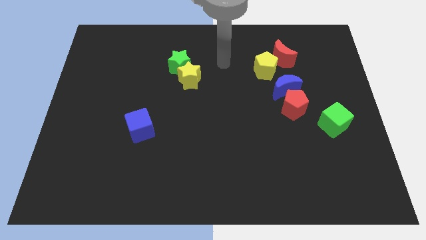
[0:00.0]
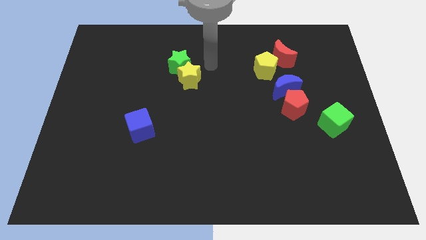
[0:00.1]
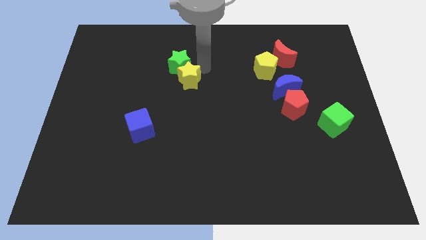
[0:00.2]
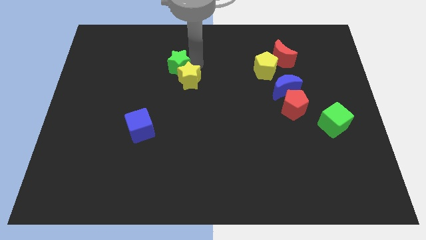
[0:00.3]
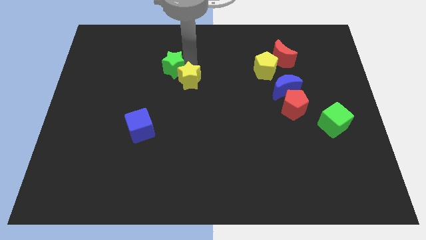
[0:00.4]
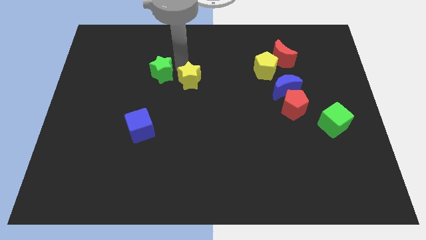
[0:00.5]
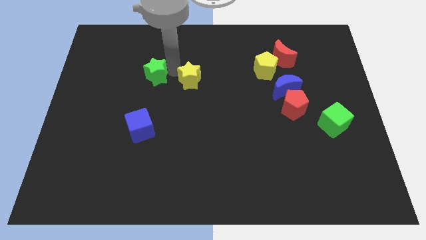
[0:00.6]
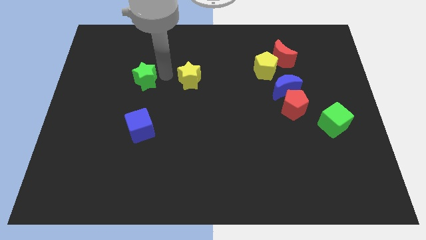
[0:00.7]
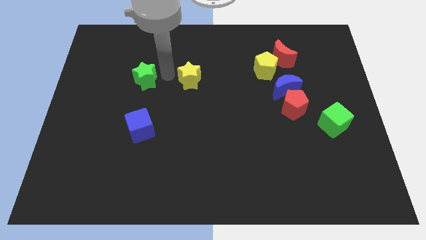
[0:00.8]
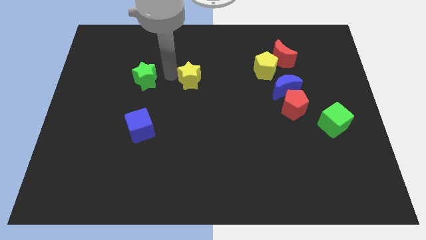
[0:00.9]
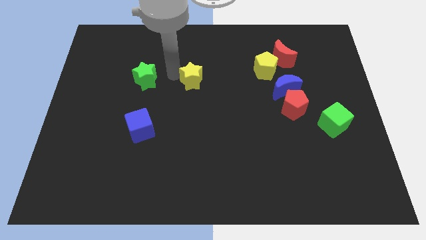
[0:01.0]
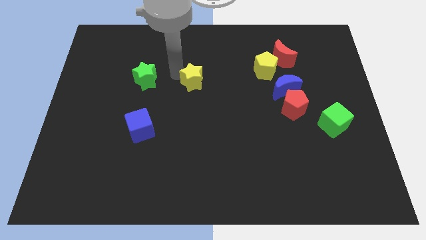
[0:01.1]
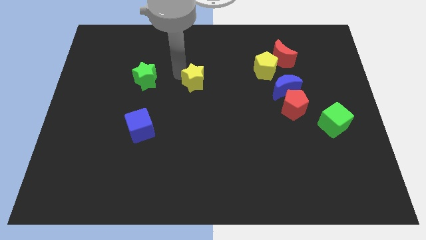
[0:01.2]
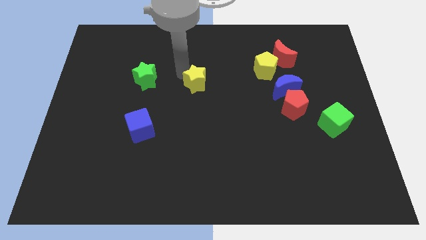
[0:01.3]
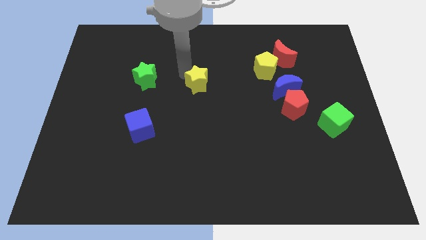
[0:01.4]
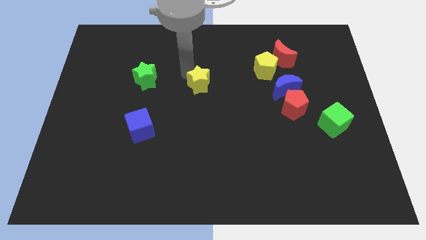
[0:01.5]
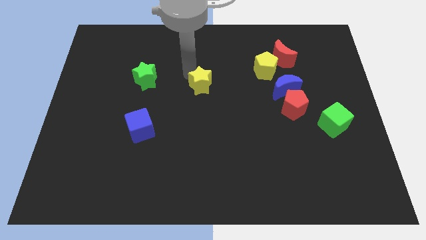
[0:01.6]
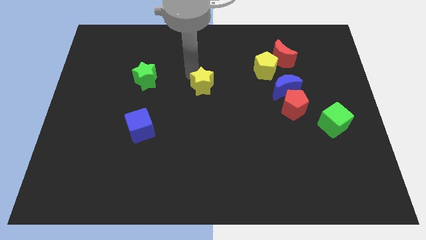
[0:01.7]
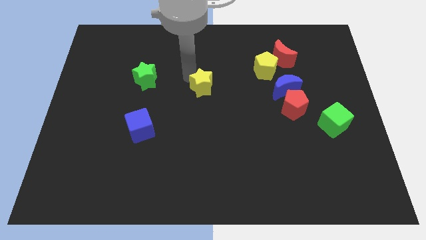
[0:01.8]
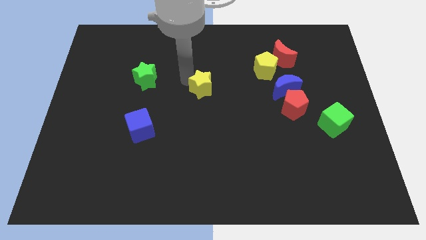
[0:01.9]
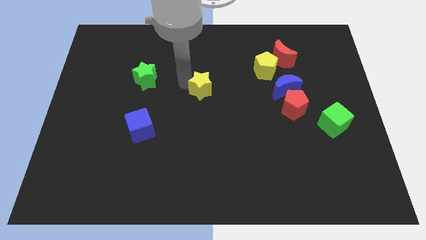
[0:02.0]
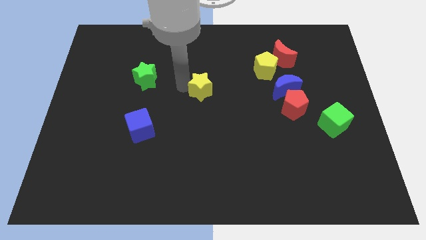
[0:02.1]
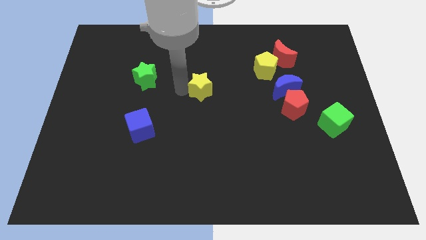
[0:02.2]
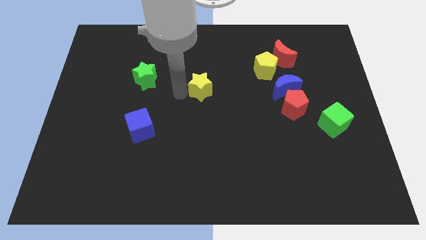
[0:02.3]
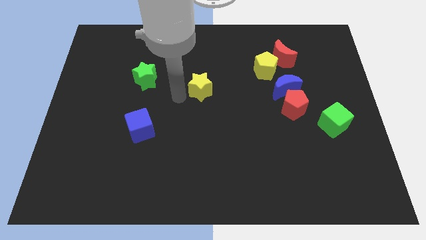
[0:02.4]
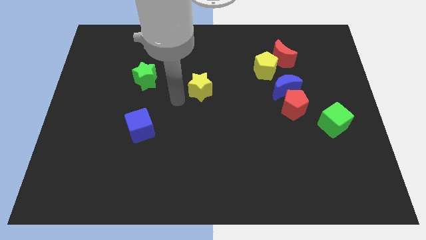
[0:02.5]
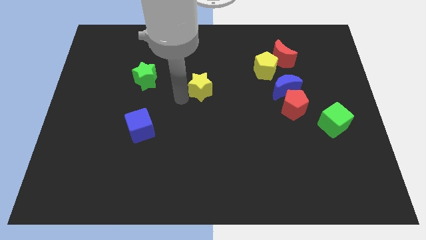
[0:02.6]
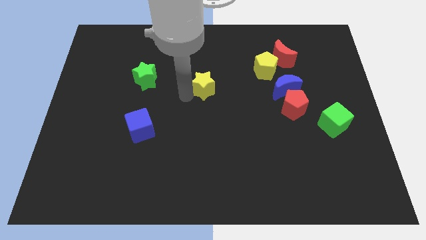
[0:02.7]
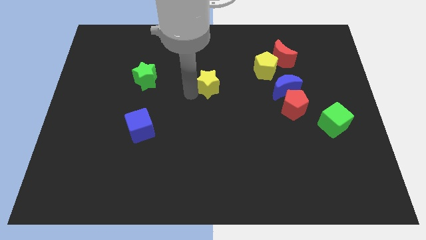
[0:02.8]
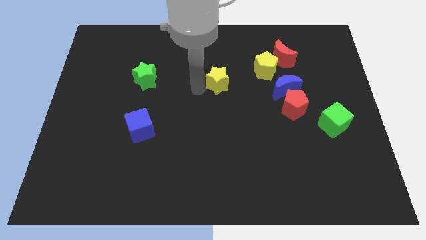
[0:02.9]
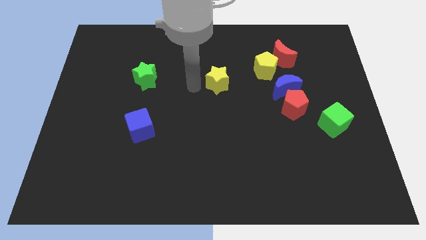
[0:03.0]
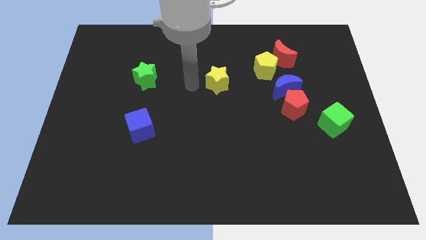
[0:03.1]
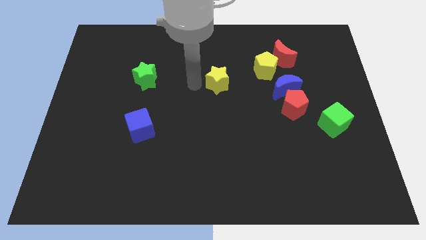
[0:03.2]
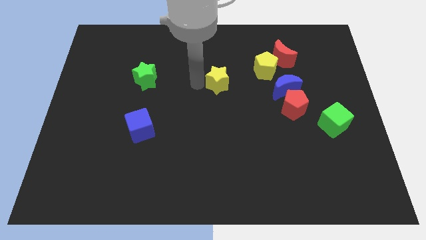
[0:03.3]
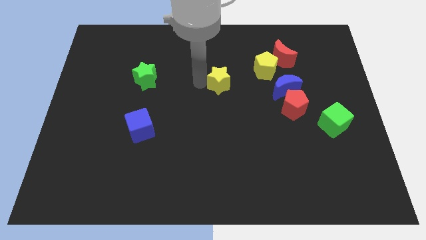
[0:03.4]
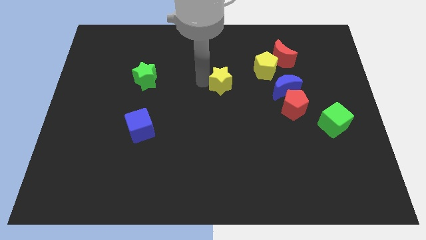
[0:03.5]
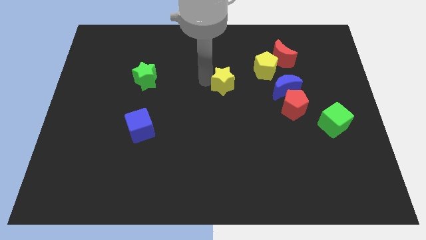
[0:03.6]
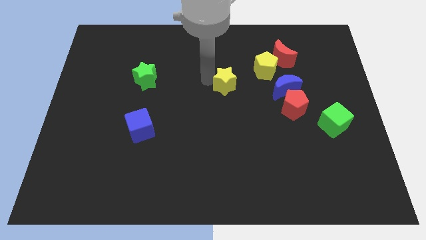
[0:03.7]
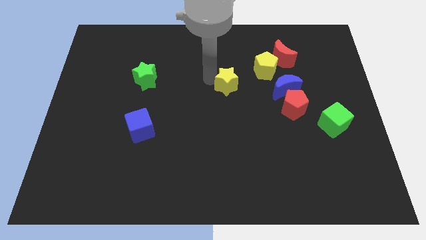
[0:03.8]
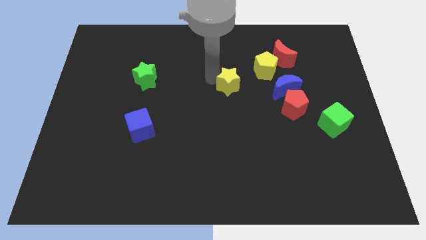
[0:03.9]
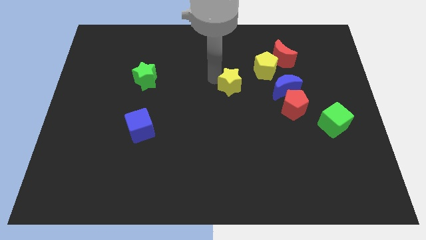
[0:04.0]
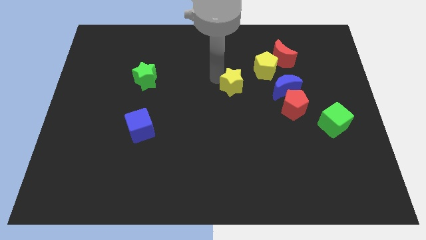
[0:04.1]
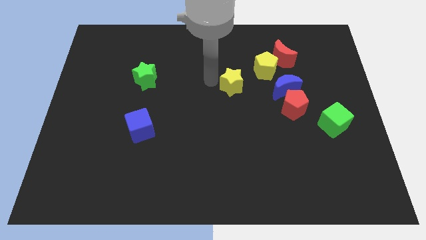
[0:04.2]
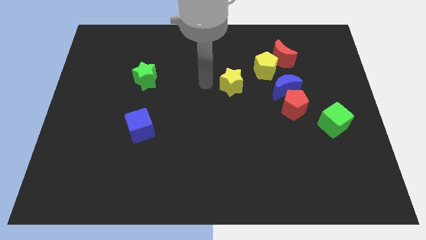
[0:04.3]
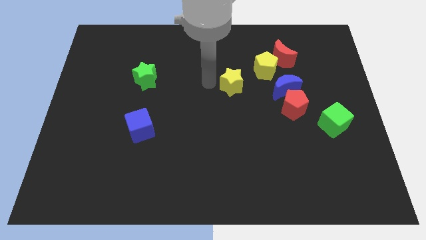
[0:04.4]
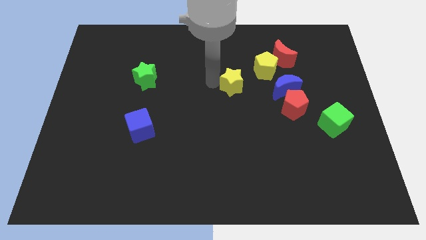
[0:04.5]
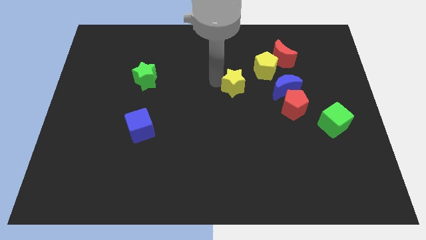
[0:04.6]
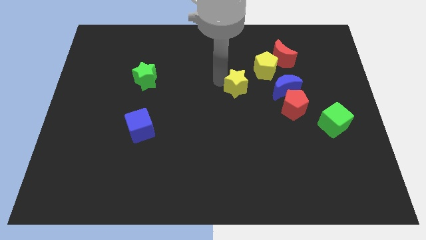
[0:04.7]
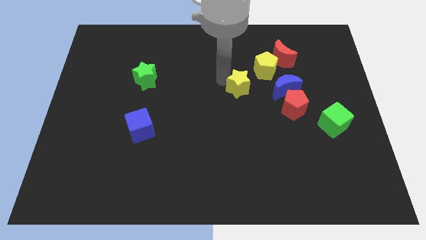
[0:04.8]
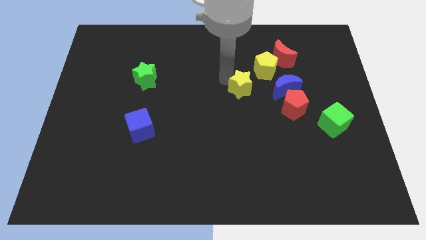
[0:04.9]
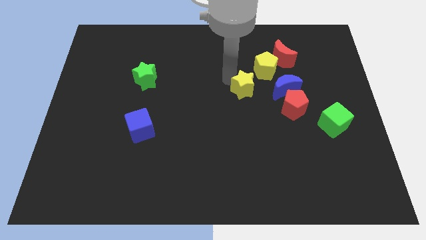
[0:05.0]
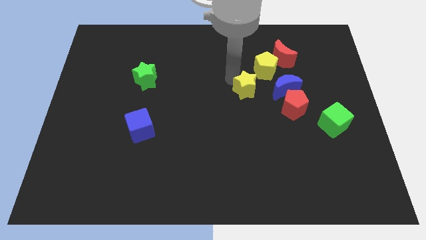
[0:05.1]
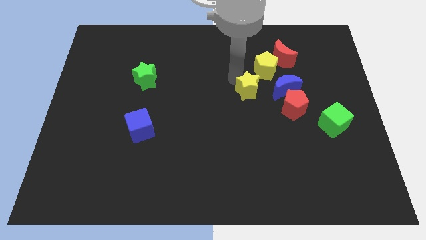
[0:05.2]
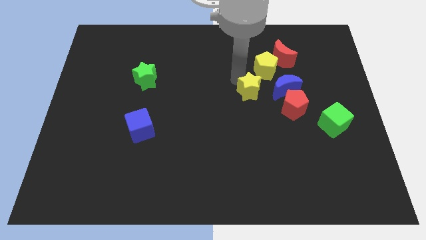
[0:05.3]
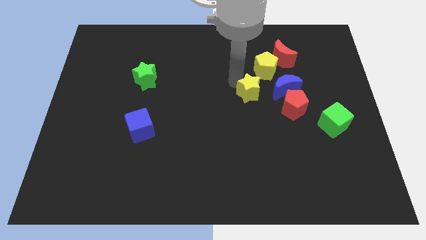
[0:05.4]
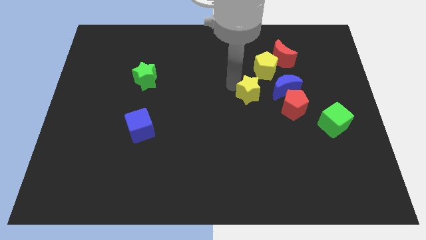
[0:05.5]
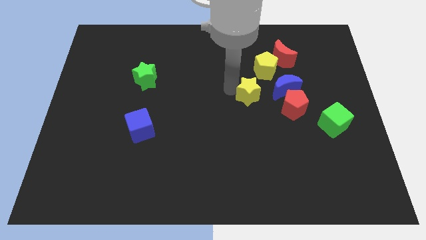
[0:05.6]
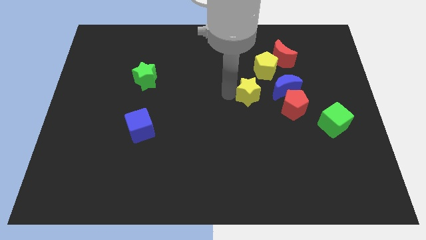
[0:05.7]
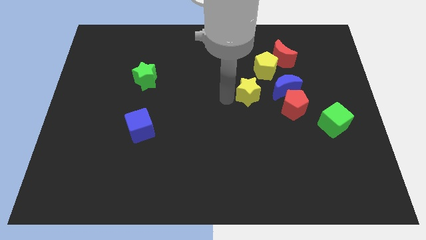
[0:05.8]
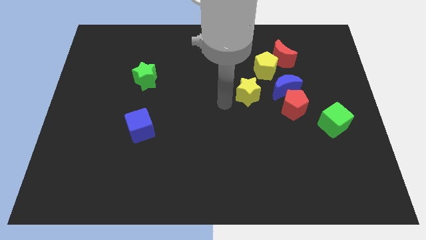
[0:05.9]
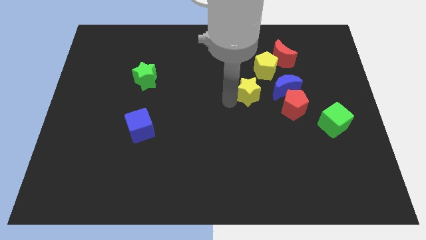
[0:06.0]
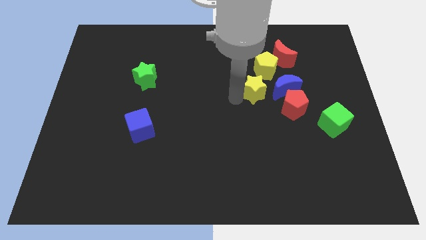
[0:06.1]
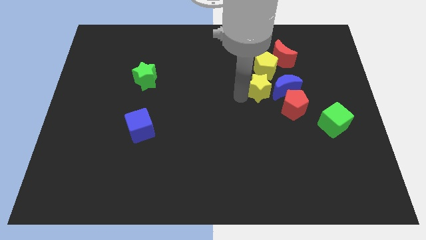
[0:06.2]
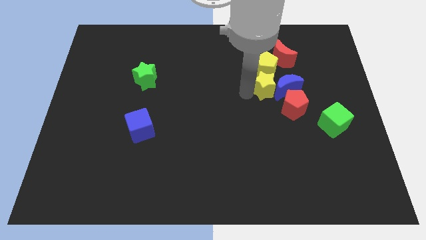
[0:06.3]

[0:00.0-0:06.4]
move the yellow star close to the blue moon

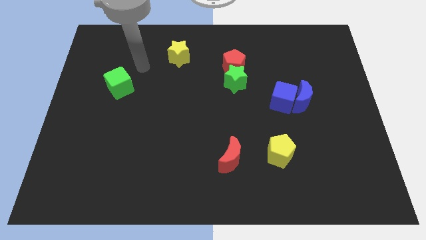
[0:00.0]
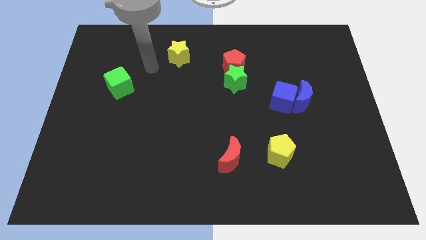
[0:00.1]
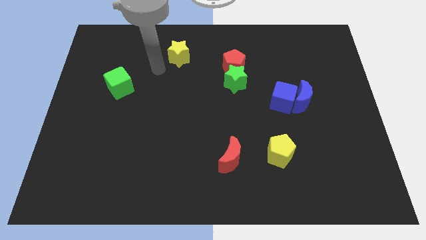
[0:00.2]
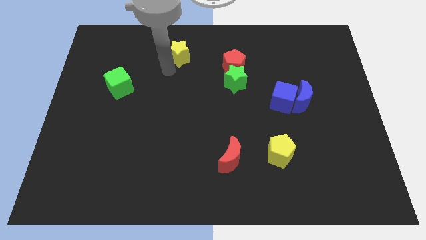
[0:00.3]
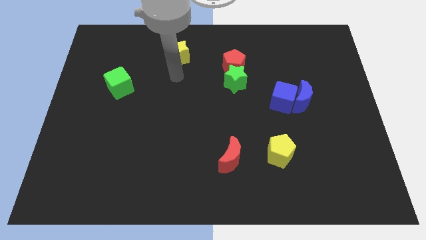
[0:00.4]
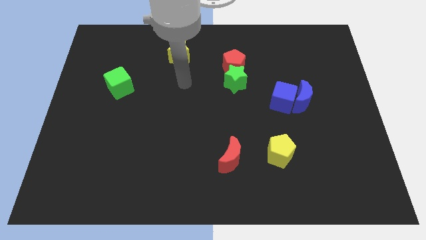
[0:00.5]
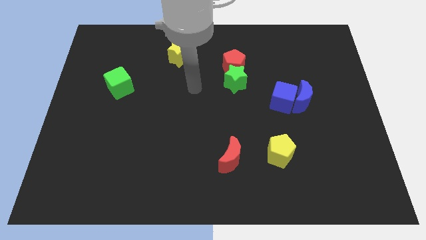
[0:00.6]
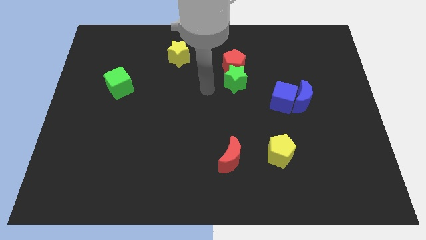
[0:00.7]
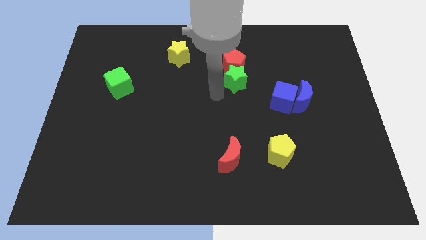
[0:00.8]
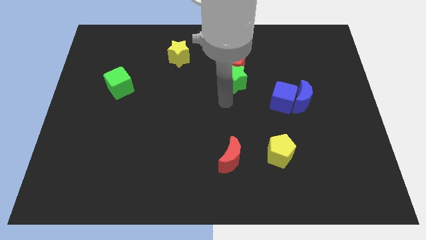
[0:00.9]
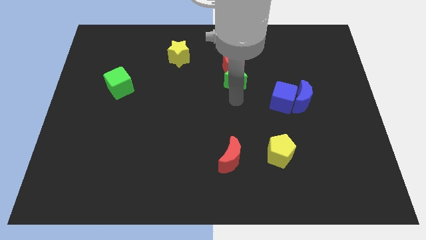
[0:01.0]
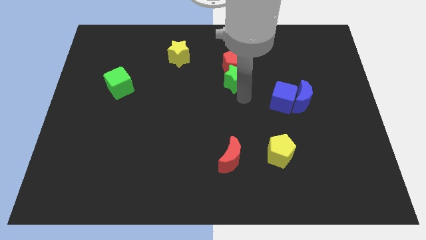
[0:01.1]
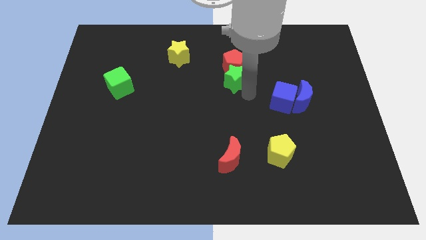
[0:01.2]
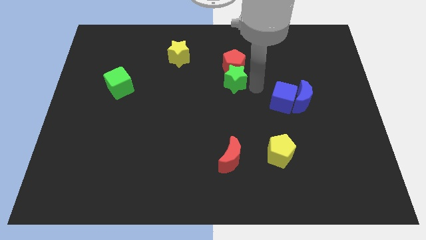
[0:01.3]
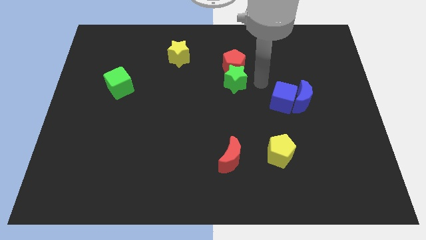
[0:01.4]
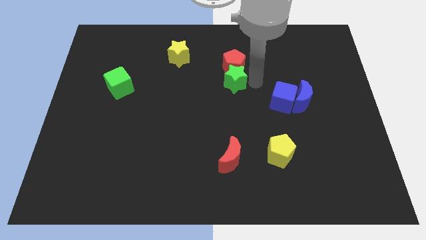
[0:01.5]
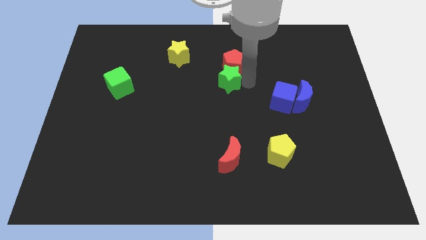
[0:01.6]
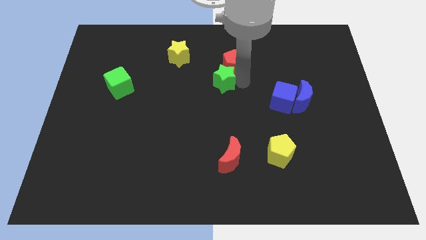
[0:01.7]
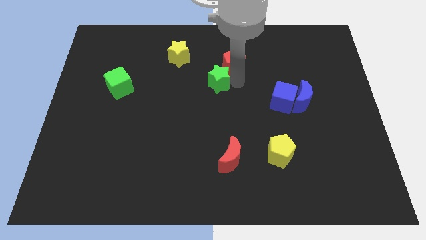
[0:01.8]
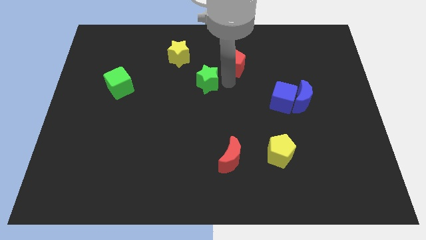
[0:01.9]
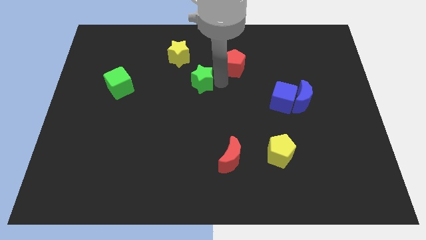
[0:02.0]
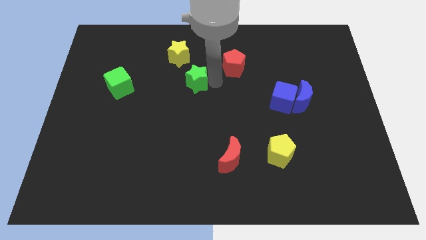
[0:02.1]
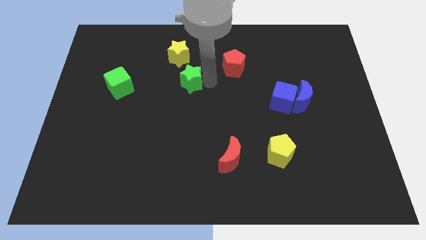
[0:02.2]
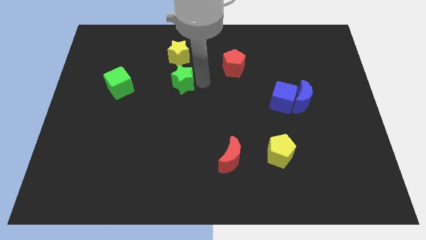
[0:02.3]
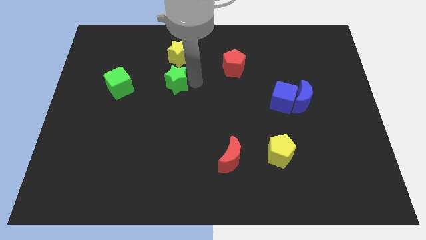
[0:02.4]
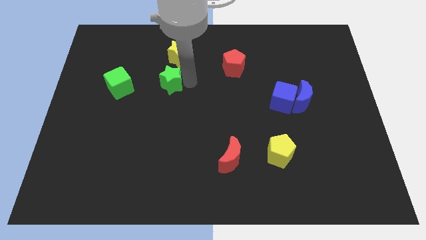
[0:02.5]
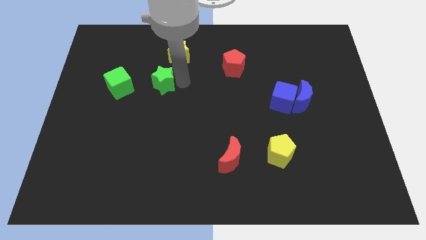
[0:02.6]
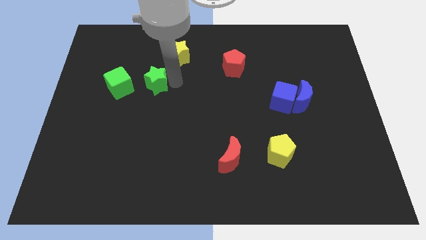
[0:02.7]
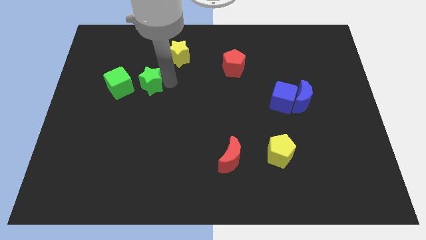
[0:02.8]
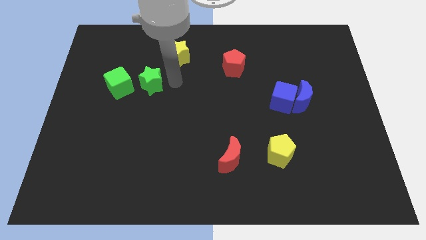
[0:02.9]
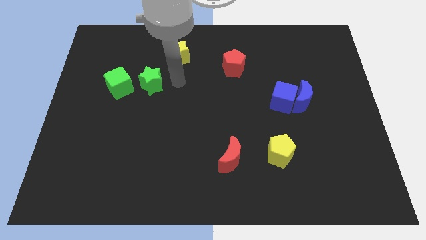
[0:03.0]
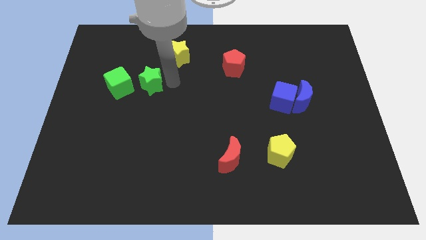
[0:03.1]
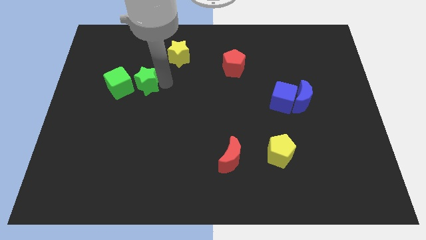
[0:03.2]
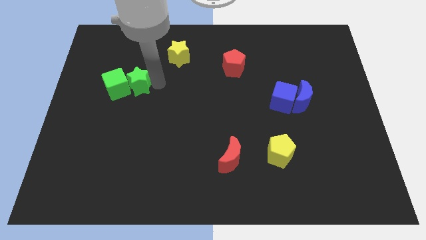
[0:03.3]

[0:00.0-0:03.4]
put the green star towards the green cube
